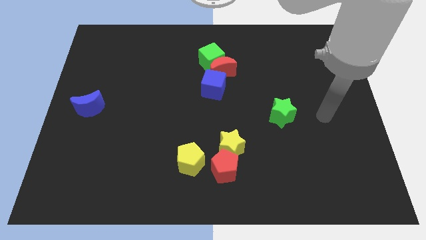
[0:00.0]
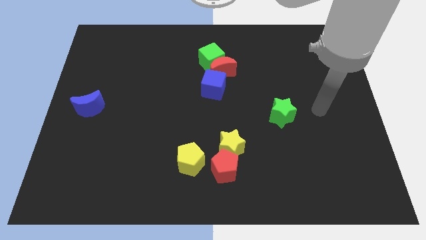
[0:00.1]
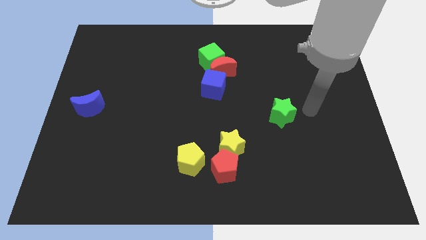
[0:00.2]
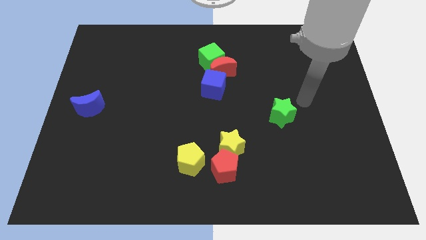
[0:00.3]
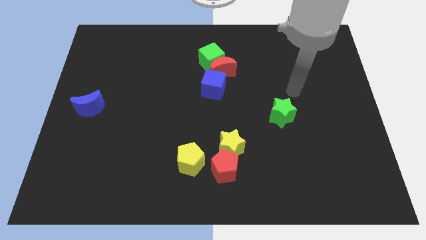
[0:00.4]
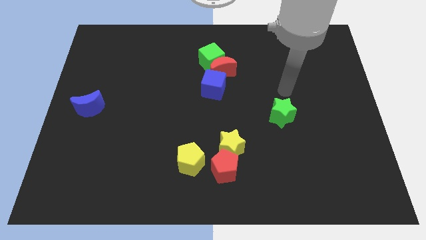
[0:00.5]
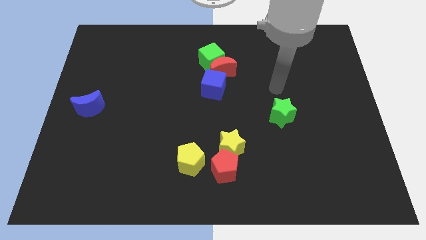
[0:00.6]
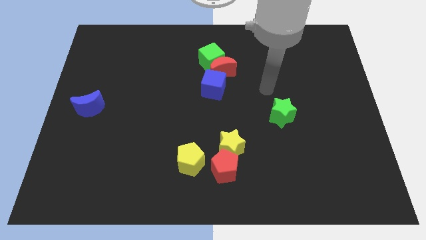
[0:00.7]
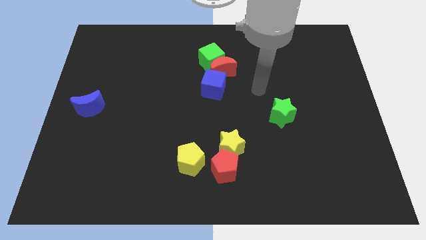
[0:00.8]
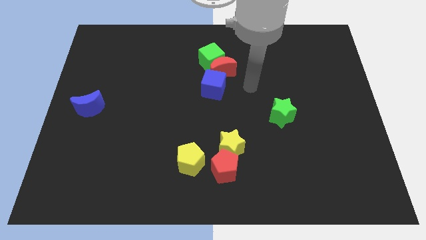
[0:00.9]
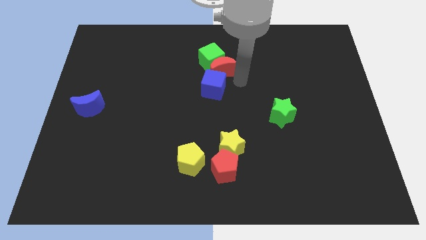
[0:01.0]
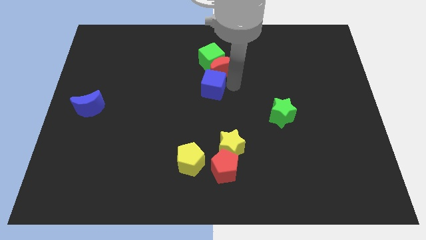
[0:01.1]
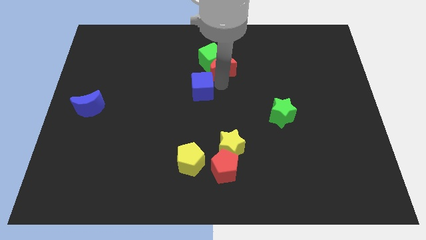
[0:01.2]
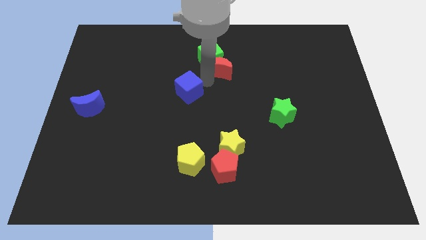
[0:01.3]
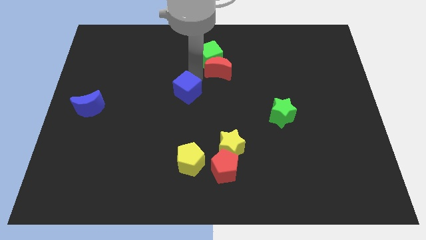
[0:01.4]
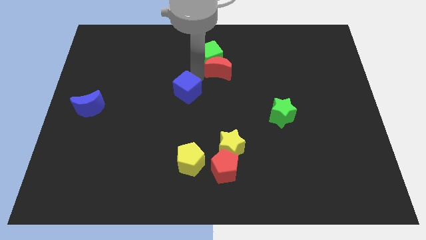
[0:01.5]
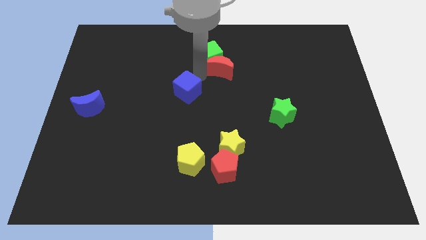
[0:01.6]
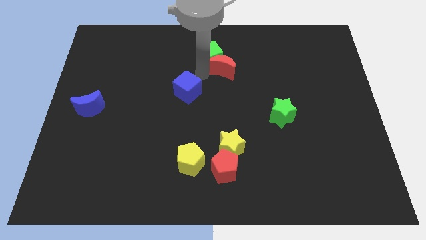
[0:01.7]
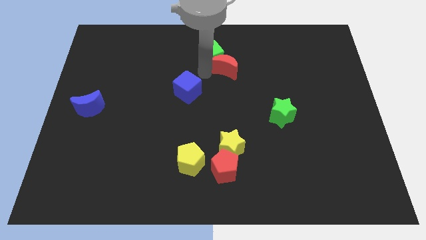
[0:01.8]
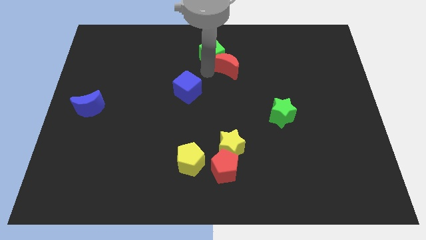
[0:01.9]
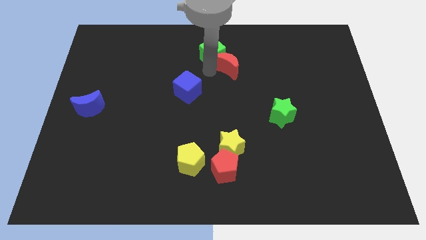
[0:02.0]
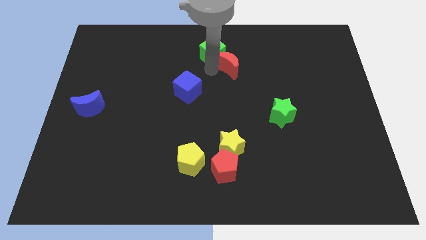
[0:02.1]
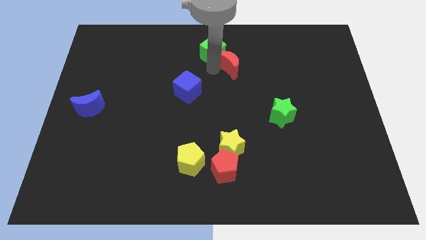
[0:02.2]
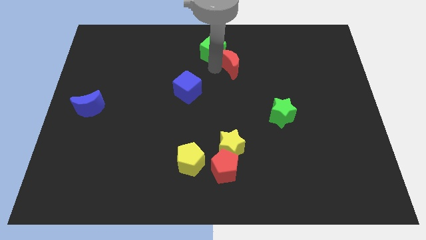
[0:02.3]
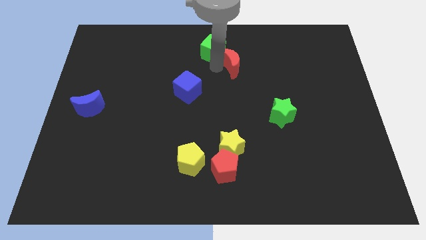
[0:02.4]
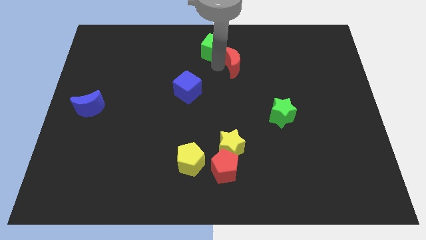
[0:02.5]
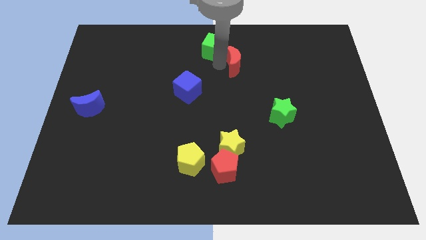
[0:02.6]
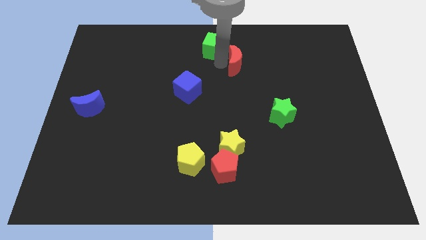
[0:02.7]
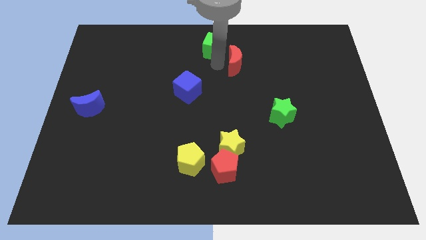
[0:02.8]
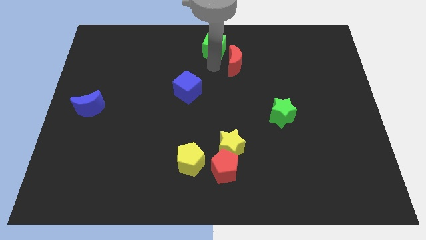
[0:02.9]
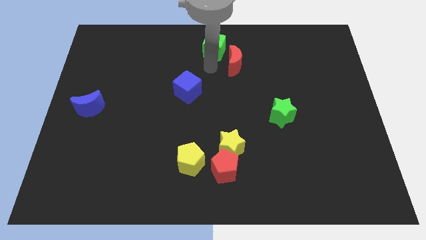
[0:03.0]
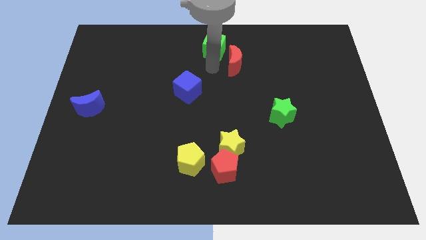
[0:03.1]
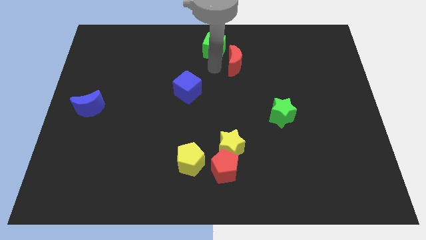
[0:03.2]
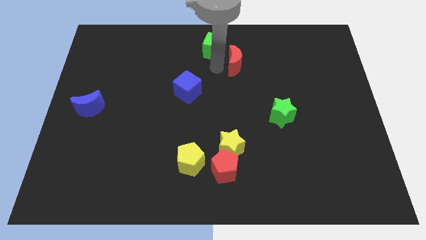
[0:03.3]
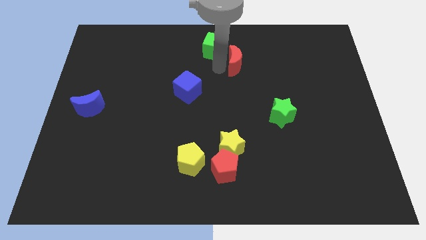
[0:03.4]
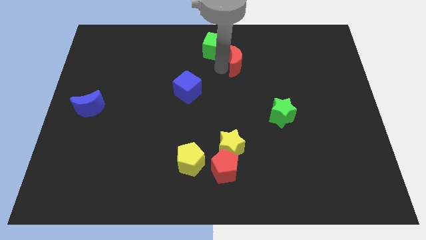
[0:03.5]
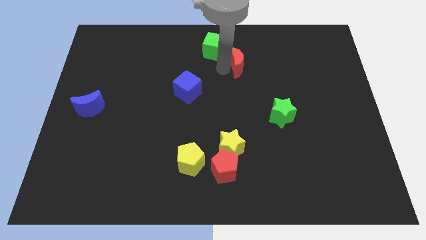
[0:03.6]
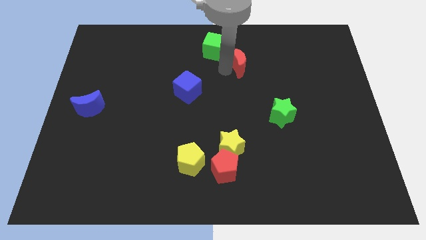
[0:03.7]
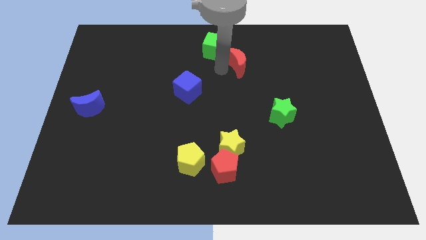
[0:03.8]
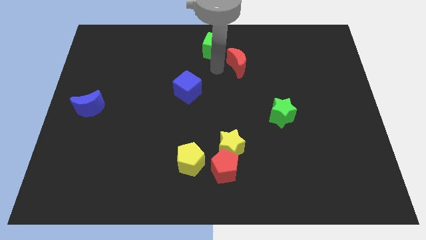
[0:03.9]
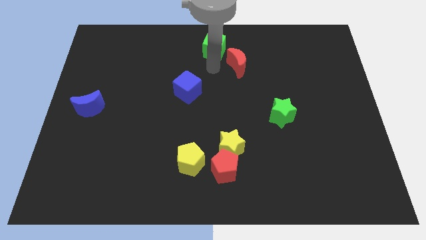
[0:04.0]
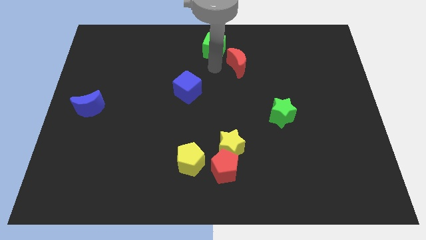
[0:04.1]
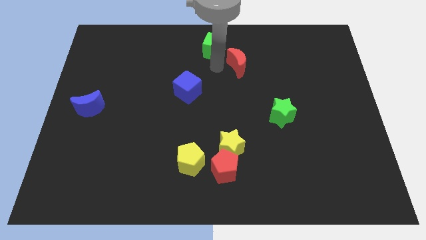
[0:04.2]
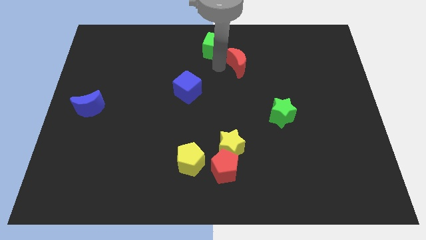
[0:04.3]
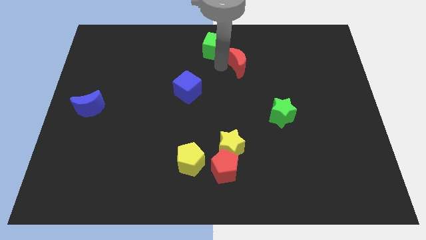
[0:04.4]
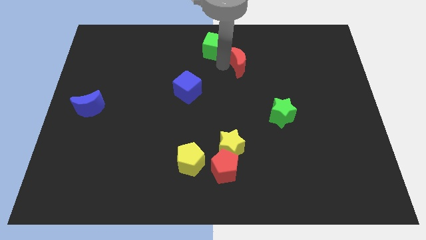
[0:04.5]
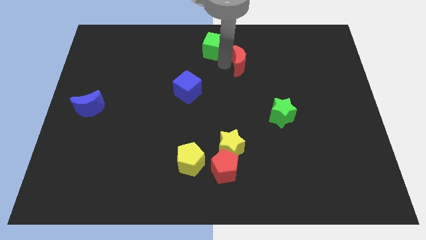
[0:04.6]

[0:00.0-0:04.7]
pull the red moon apart from the green cube and blue cube

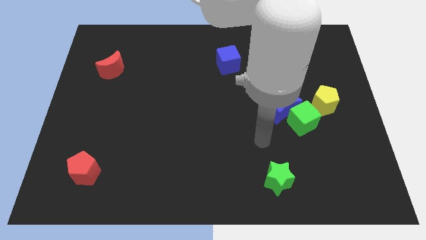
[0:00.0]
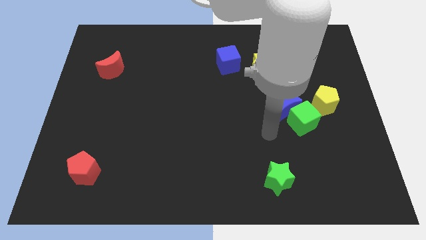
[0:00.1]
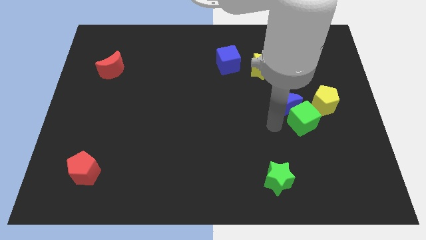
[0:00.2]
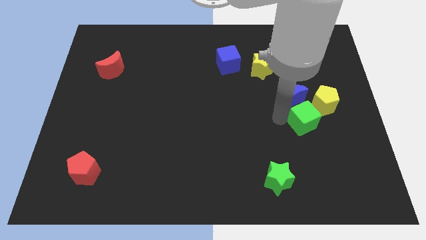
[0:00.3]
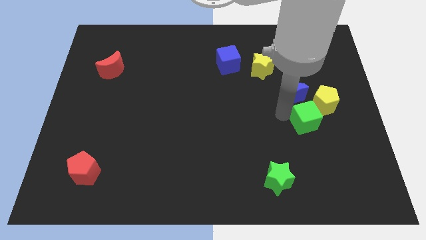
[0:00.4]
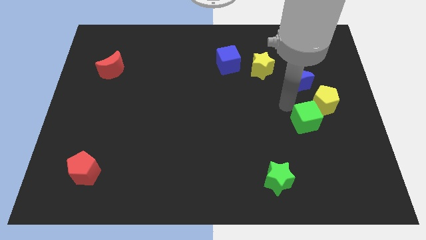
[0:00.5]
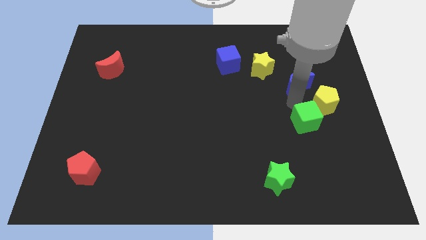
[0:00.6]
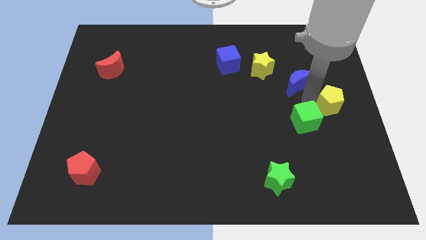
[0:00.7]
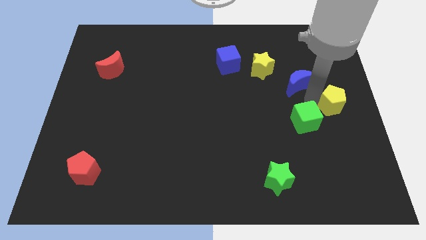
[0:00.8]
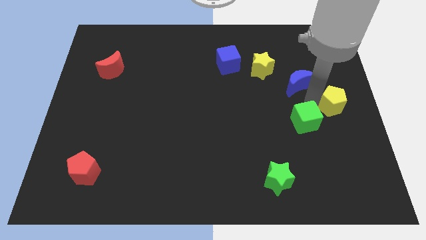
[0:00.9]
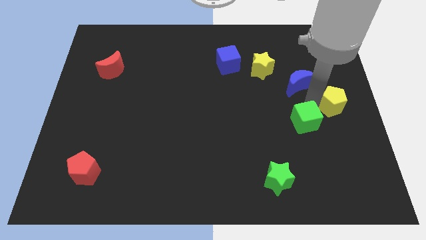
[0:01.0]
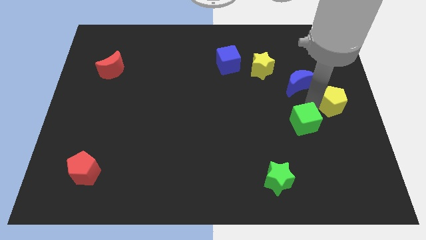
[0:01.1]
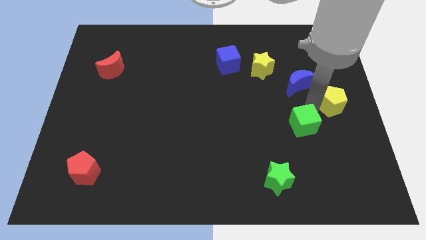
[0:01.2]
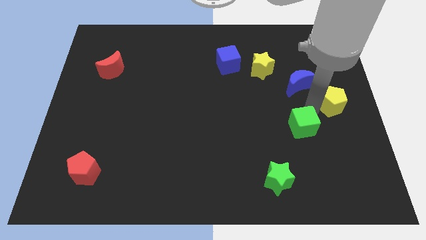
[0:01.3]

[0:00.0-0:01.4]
separate the green cube from the blue moon and yellow pentagon

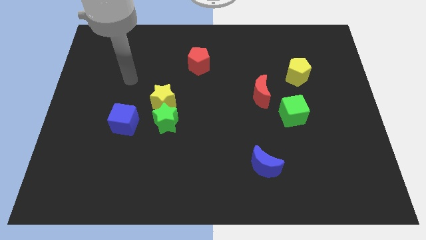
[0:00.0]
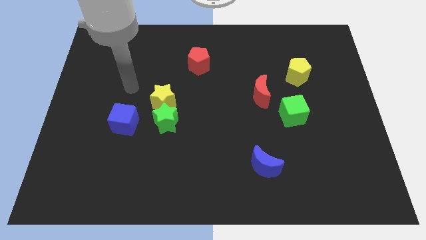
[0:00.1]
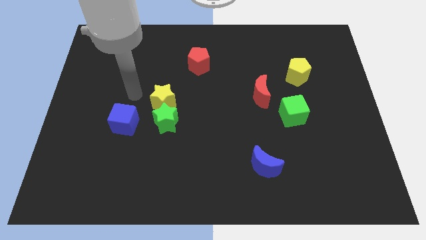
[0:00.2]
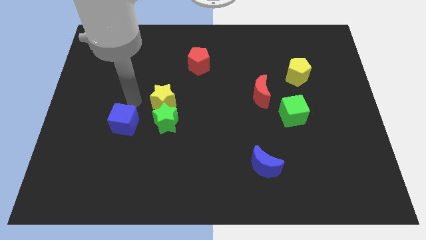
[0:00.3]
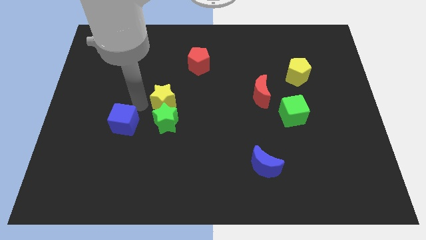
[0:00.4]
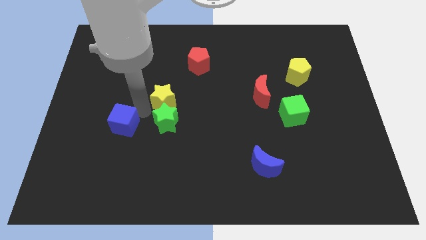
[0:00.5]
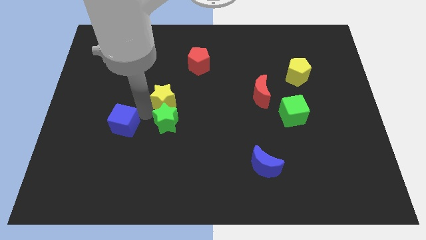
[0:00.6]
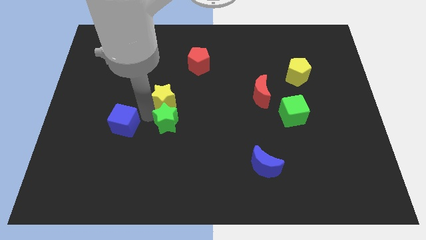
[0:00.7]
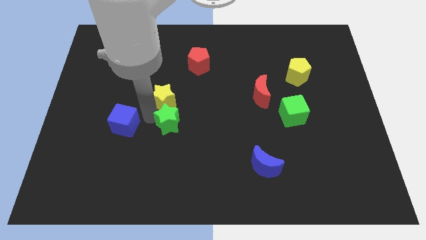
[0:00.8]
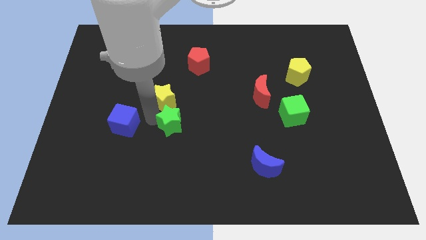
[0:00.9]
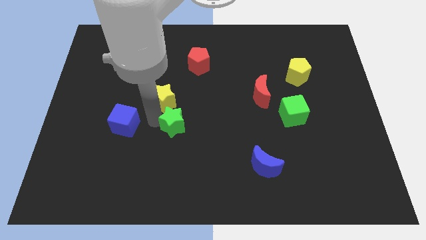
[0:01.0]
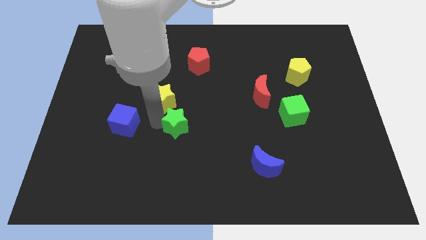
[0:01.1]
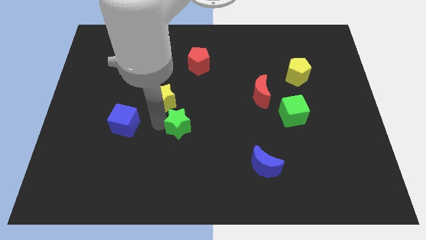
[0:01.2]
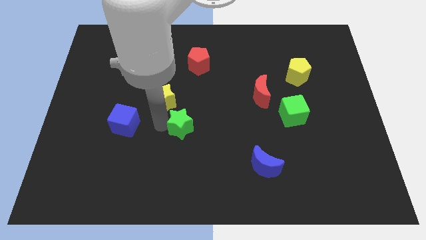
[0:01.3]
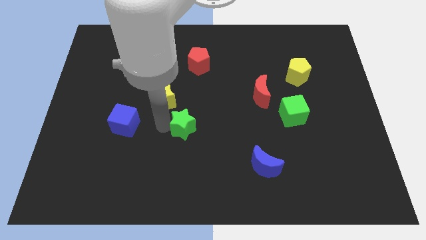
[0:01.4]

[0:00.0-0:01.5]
separate the green star from the yellow star and blue cube

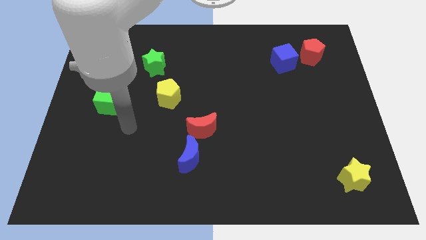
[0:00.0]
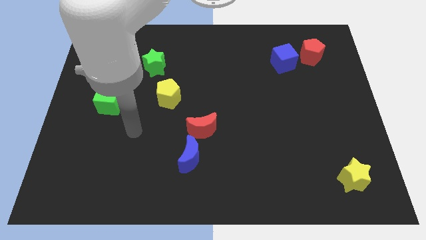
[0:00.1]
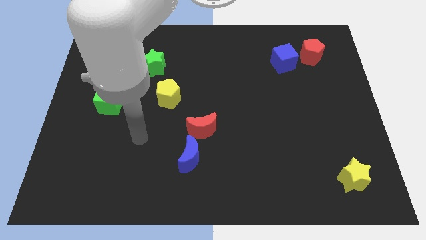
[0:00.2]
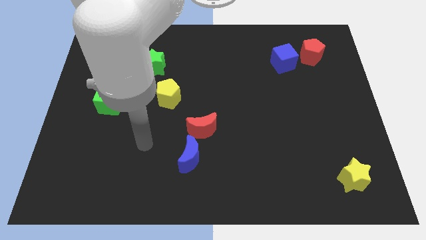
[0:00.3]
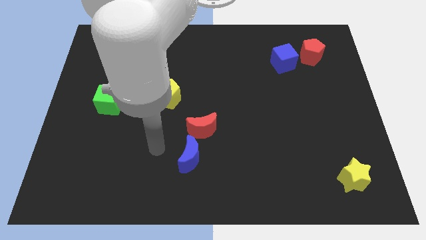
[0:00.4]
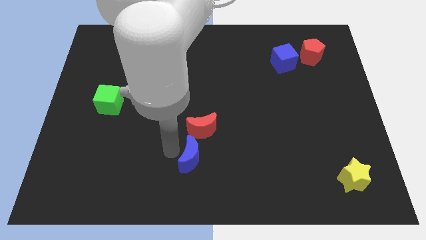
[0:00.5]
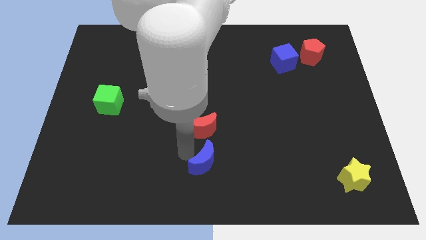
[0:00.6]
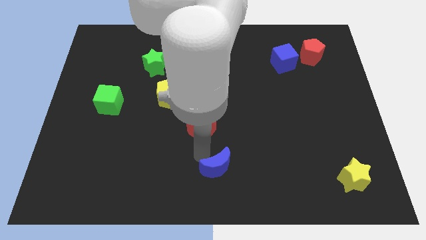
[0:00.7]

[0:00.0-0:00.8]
move the red moon away from the blue moon

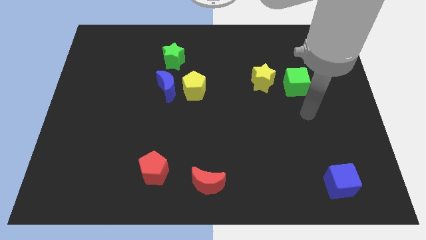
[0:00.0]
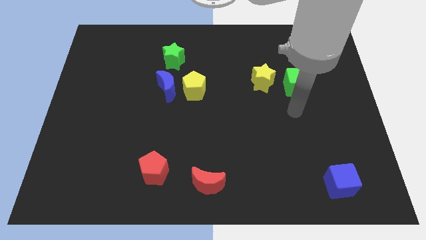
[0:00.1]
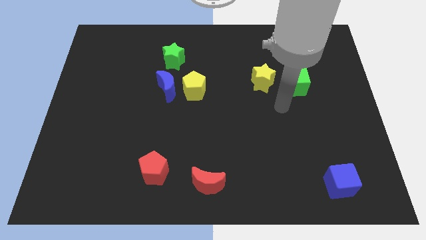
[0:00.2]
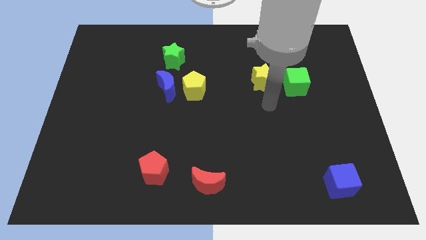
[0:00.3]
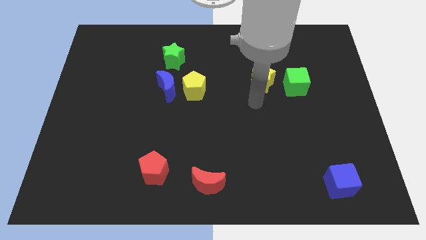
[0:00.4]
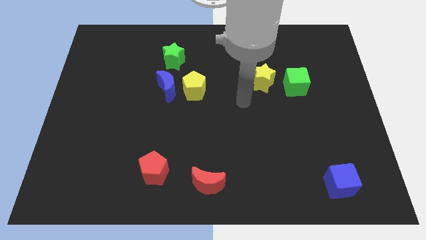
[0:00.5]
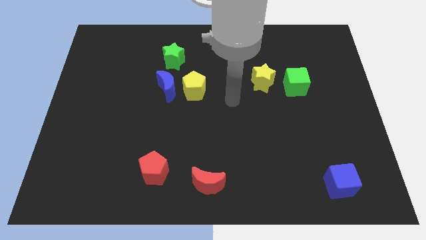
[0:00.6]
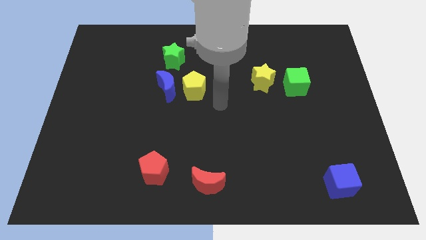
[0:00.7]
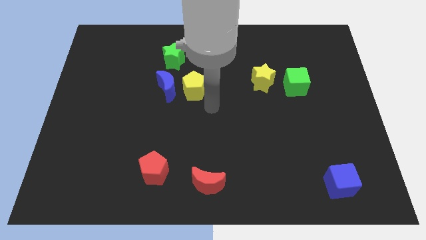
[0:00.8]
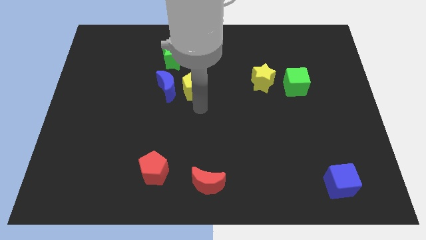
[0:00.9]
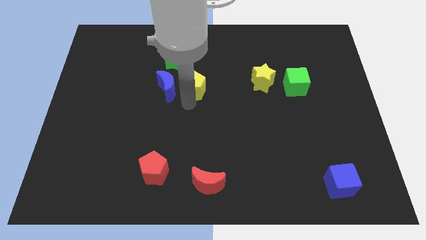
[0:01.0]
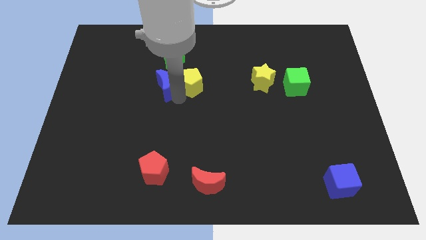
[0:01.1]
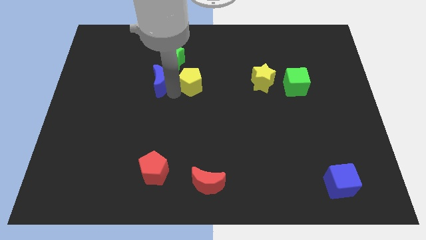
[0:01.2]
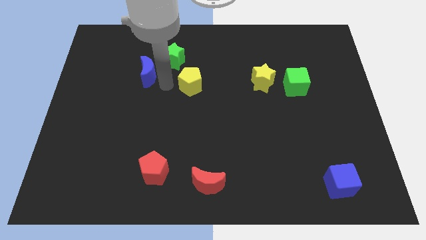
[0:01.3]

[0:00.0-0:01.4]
separate the yellow pentagon from the blue moon
